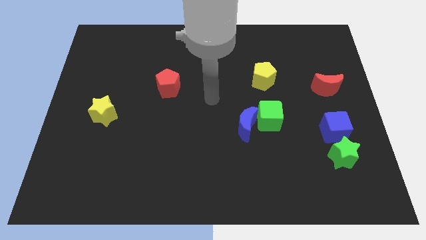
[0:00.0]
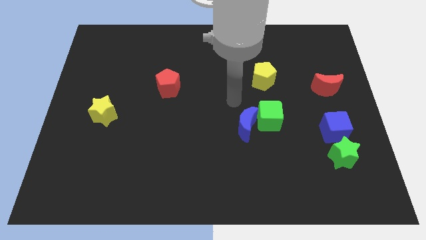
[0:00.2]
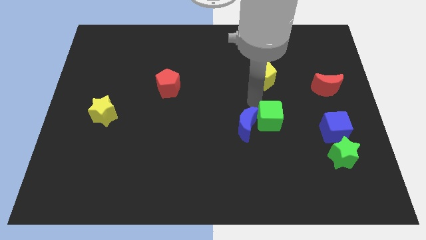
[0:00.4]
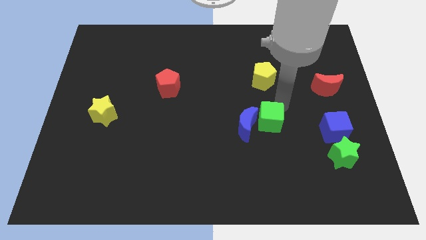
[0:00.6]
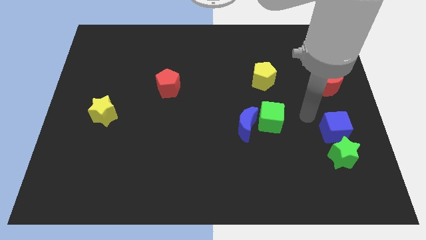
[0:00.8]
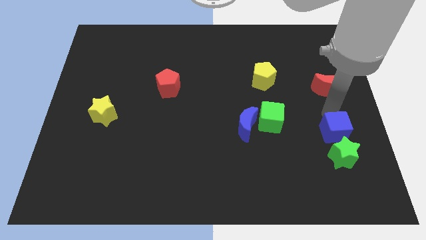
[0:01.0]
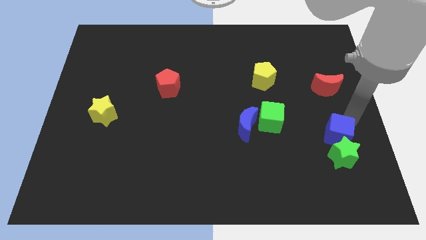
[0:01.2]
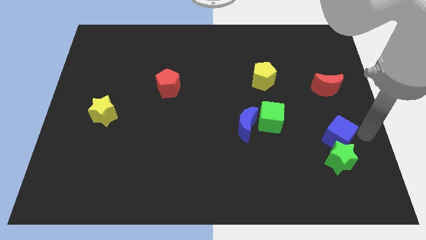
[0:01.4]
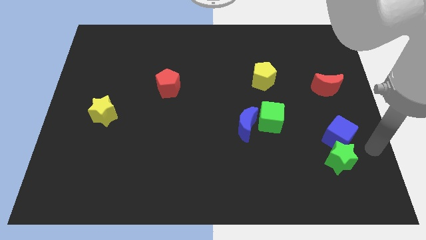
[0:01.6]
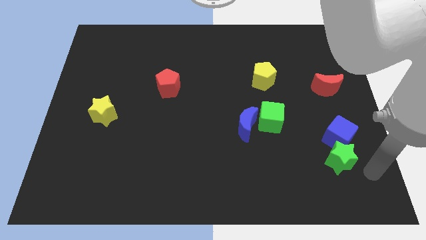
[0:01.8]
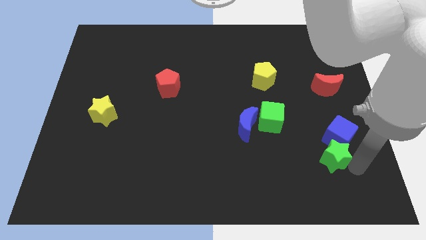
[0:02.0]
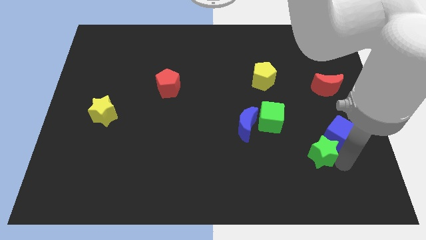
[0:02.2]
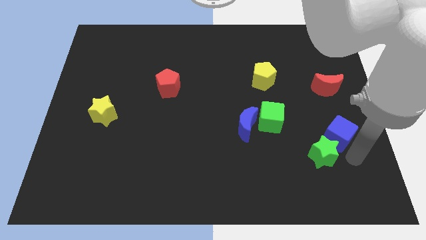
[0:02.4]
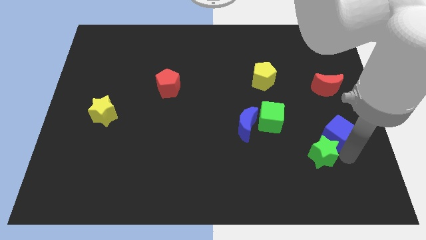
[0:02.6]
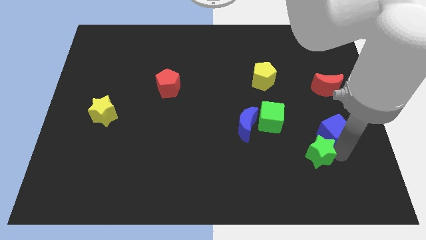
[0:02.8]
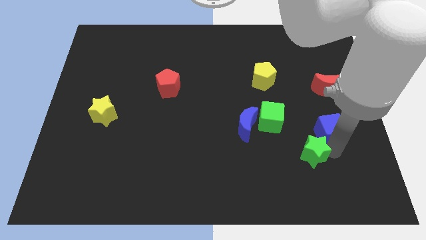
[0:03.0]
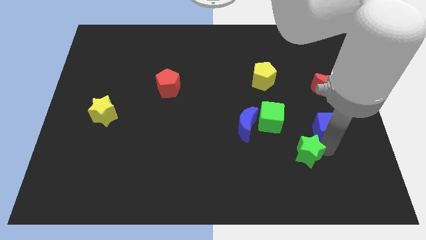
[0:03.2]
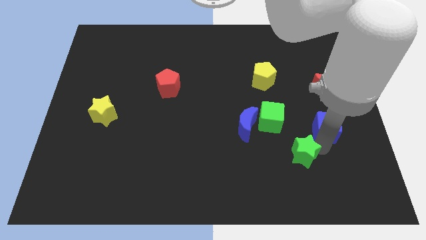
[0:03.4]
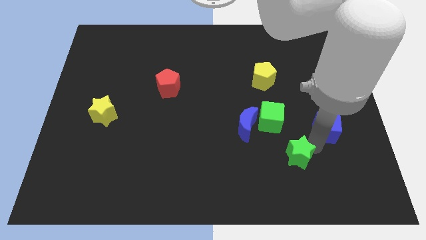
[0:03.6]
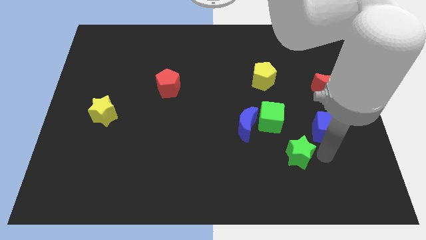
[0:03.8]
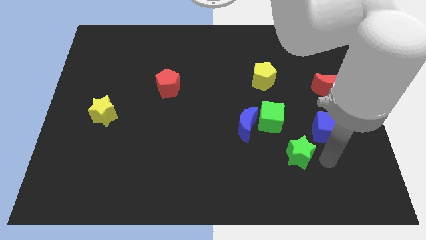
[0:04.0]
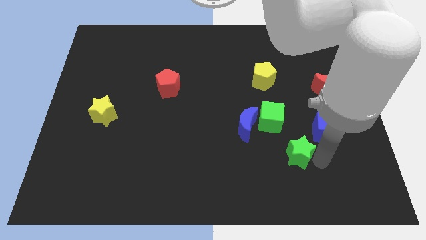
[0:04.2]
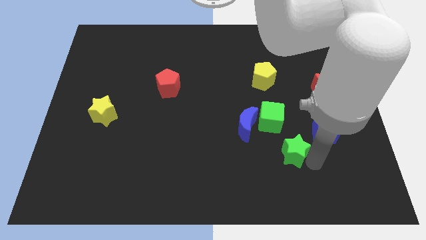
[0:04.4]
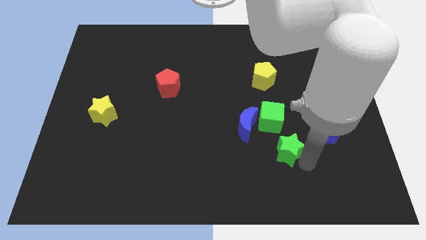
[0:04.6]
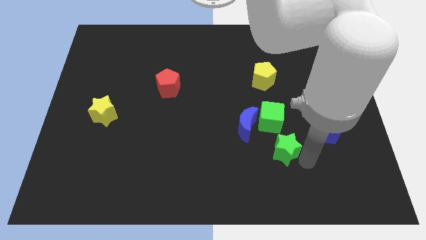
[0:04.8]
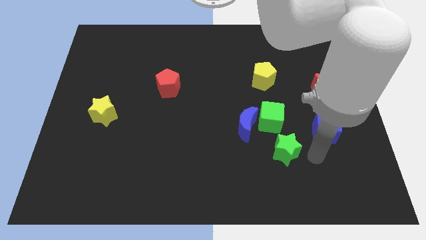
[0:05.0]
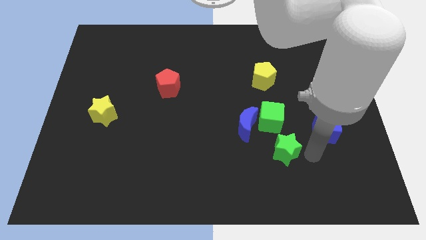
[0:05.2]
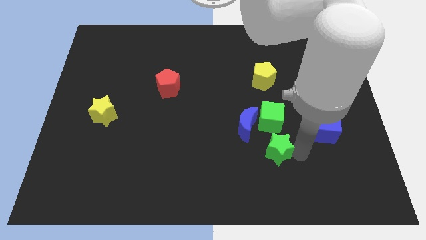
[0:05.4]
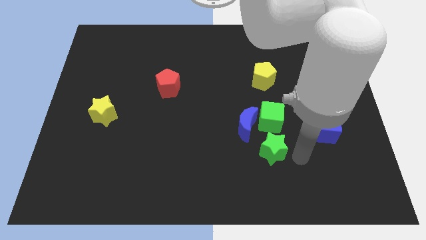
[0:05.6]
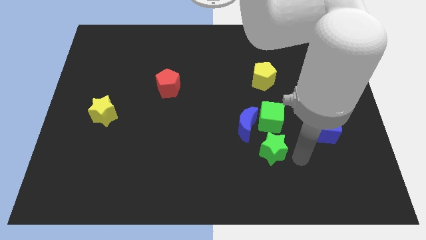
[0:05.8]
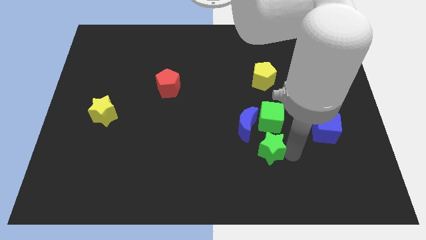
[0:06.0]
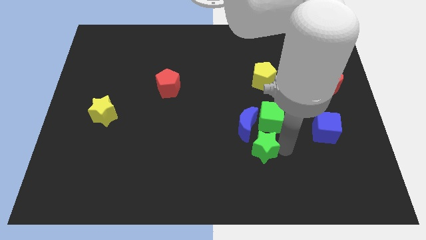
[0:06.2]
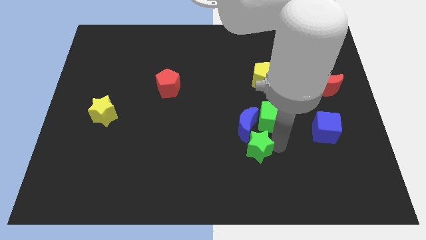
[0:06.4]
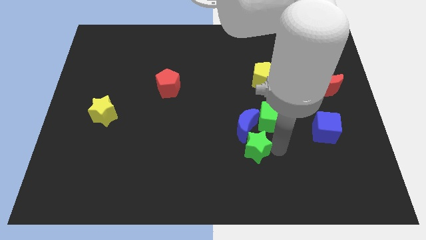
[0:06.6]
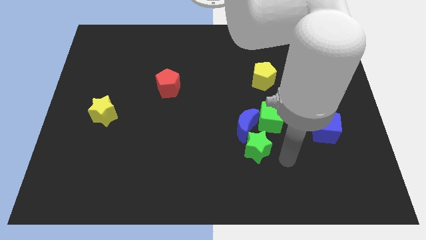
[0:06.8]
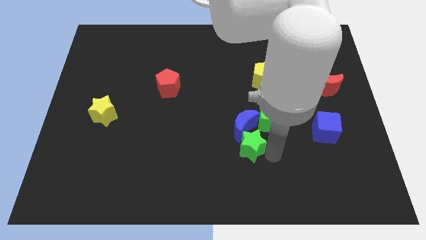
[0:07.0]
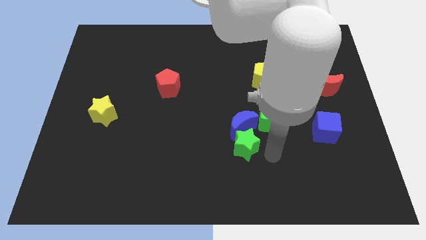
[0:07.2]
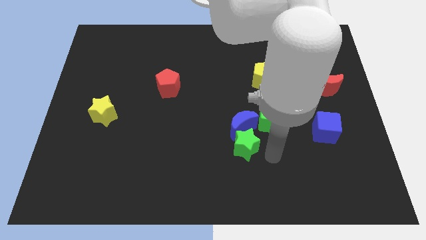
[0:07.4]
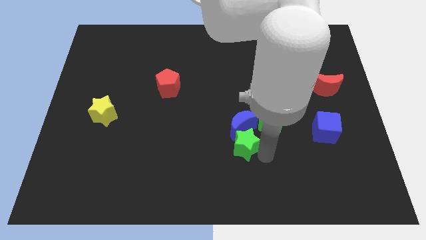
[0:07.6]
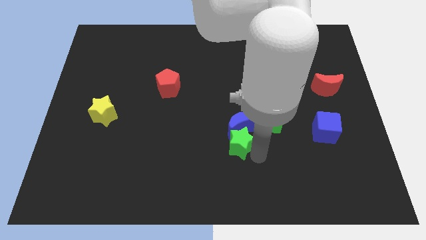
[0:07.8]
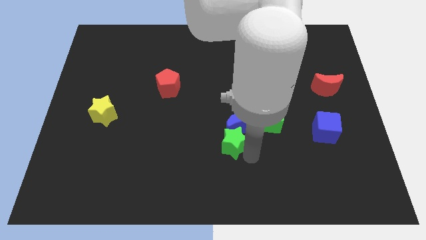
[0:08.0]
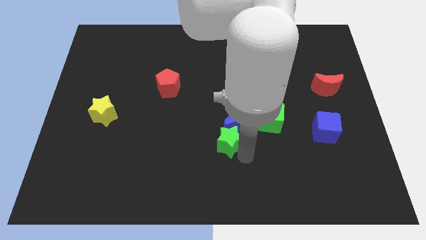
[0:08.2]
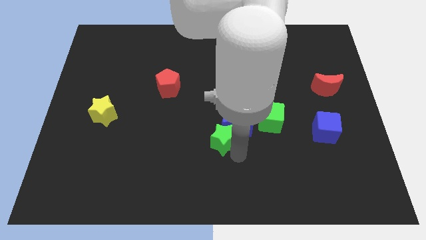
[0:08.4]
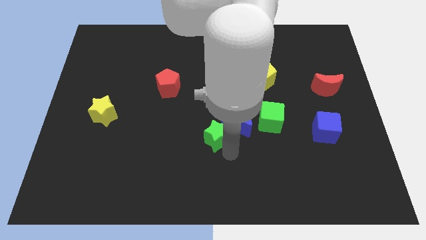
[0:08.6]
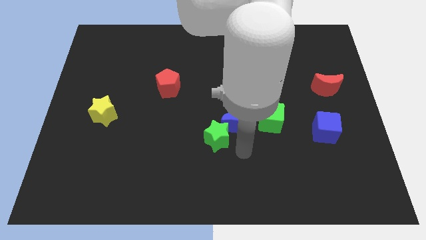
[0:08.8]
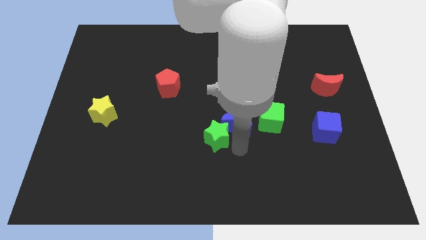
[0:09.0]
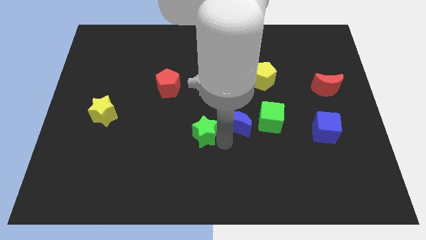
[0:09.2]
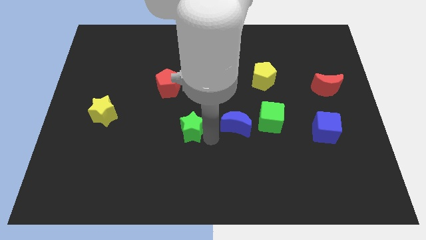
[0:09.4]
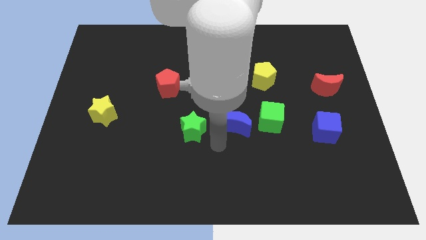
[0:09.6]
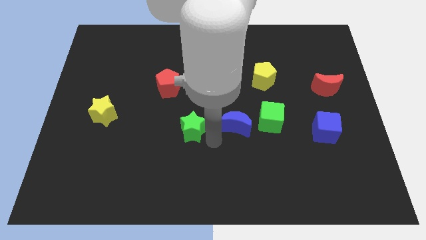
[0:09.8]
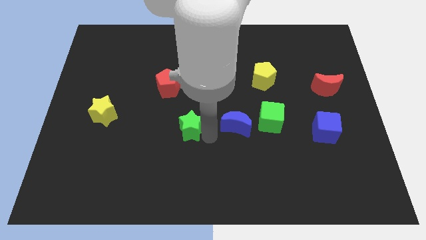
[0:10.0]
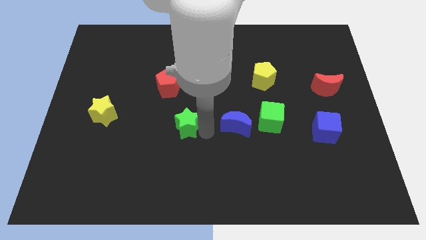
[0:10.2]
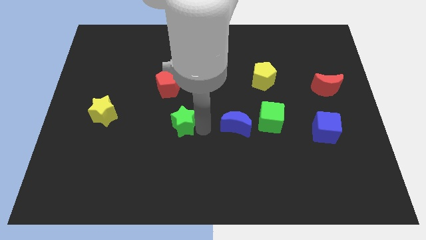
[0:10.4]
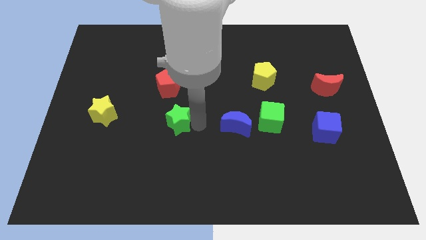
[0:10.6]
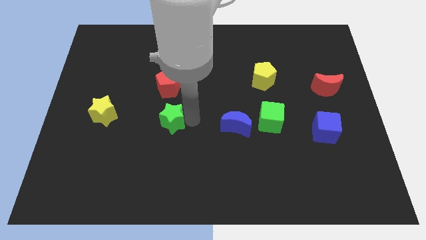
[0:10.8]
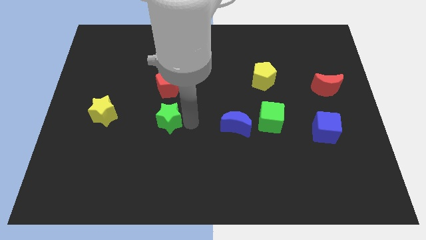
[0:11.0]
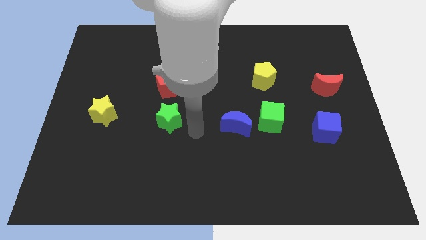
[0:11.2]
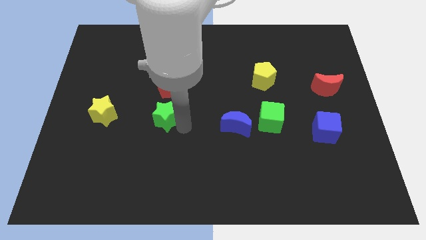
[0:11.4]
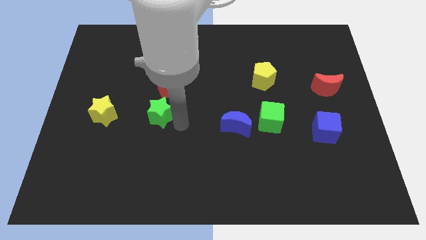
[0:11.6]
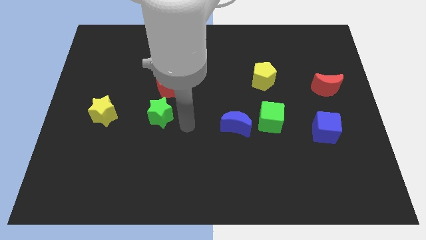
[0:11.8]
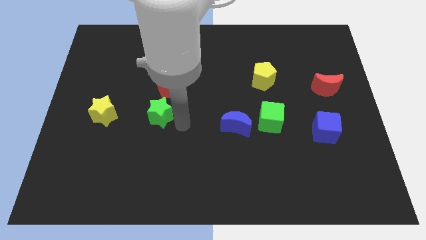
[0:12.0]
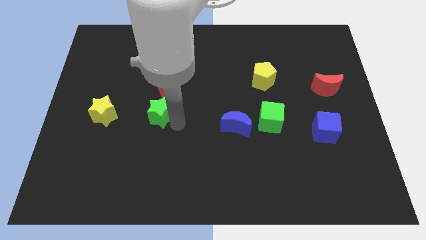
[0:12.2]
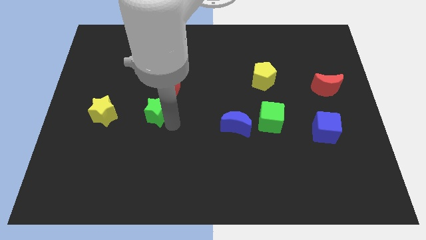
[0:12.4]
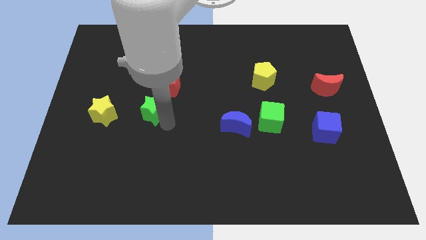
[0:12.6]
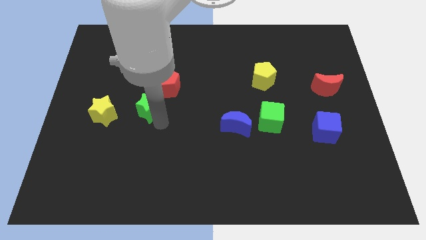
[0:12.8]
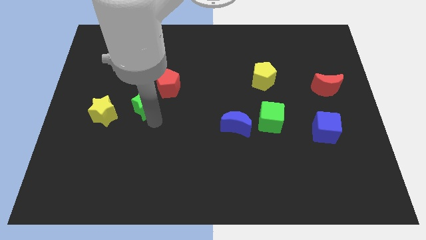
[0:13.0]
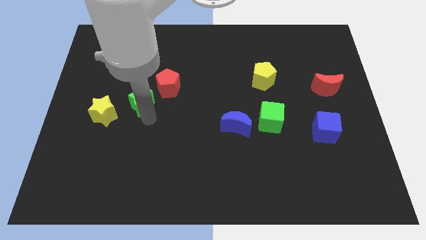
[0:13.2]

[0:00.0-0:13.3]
push the green star to the top right of the yellow star
